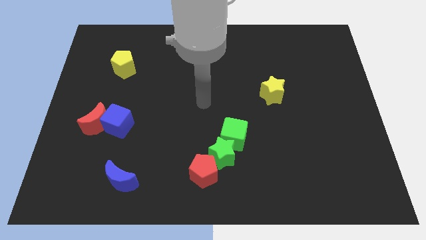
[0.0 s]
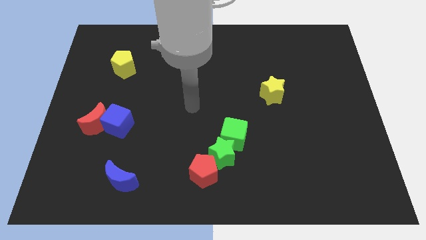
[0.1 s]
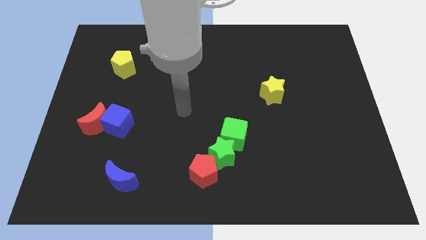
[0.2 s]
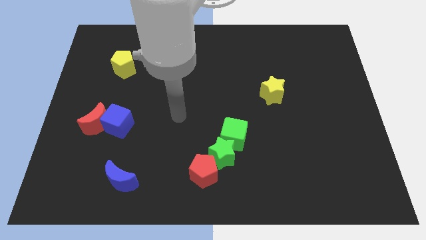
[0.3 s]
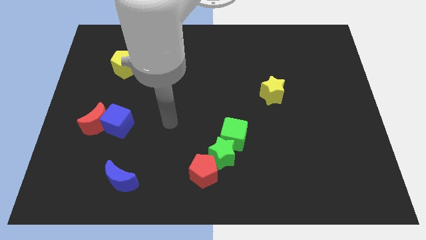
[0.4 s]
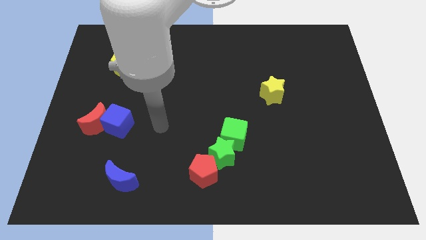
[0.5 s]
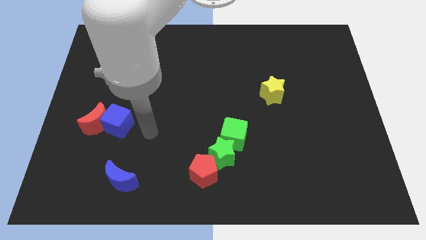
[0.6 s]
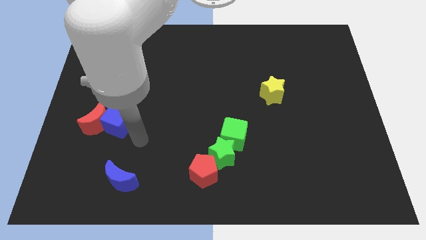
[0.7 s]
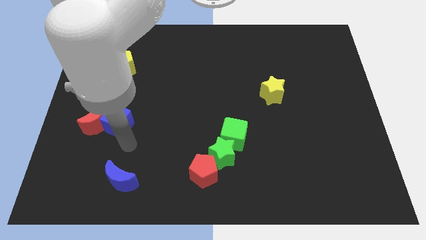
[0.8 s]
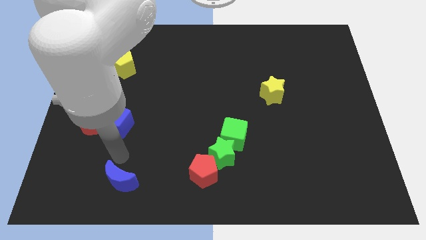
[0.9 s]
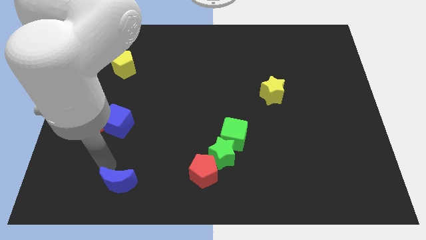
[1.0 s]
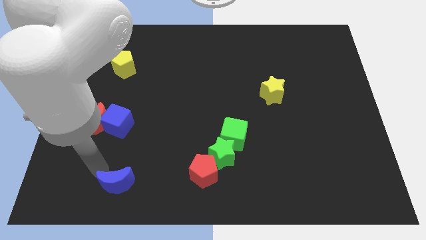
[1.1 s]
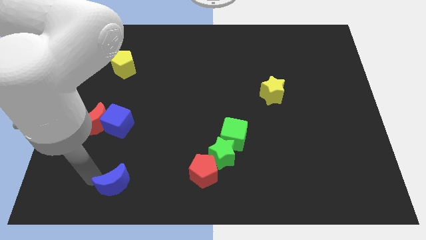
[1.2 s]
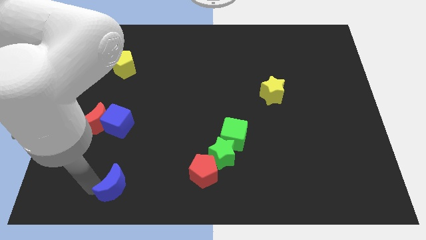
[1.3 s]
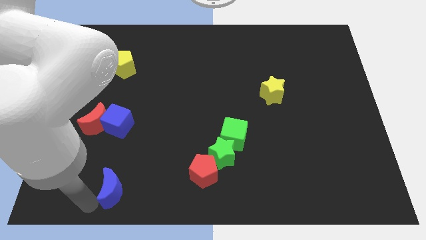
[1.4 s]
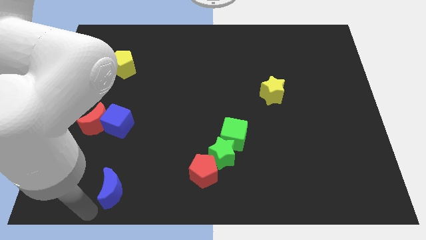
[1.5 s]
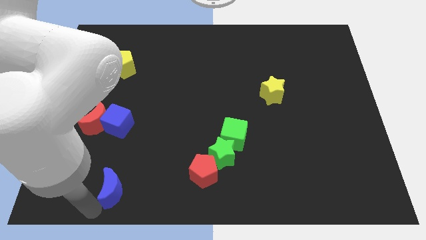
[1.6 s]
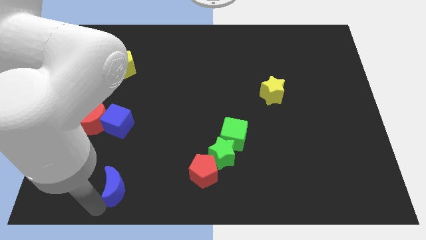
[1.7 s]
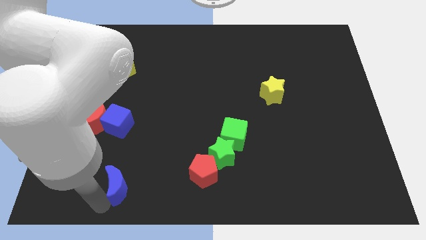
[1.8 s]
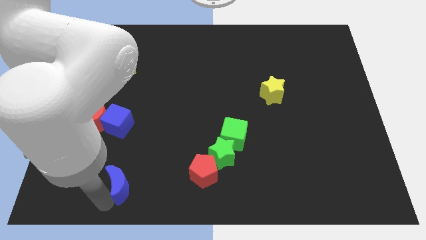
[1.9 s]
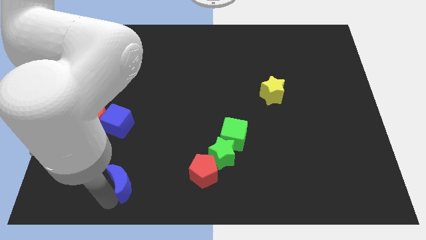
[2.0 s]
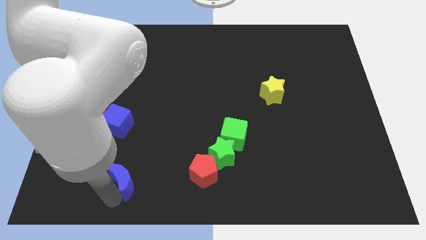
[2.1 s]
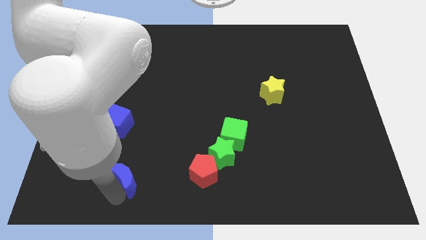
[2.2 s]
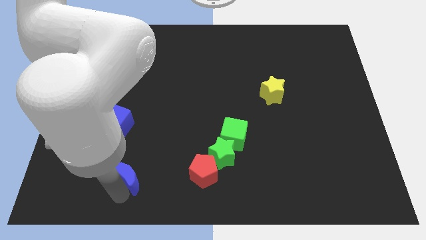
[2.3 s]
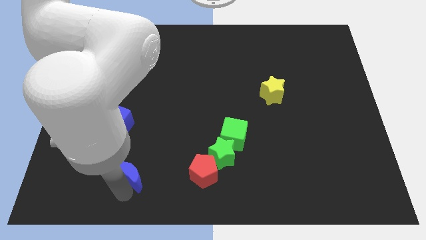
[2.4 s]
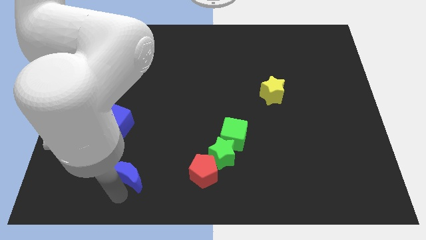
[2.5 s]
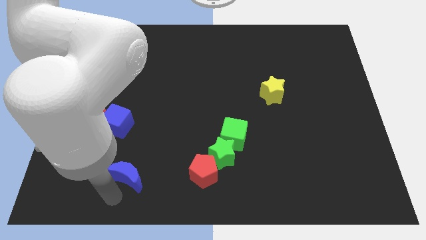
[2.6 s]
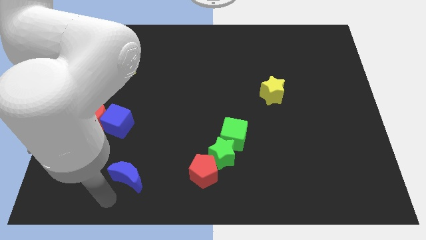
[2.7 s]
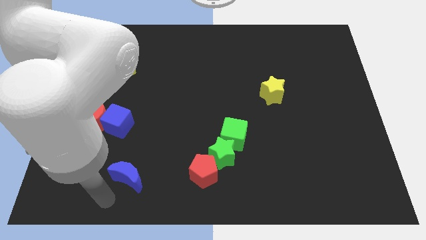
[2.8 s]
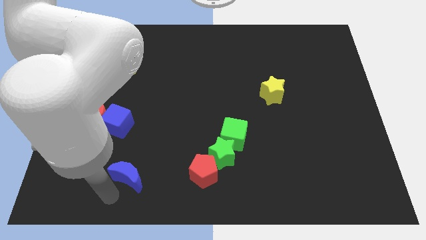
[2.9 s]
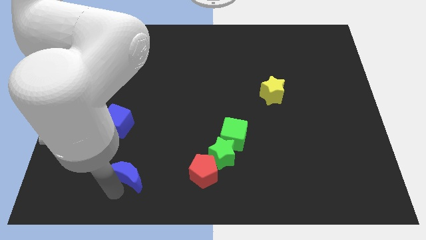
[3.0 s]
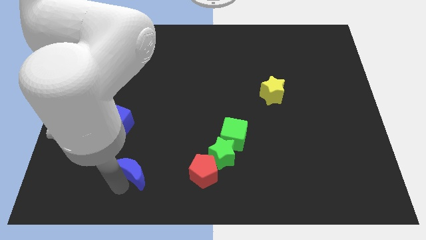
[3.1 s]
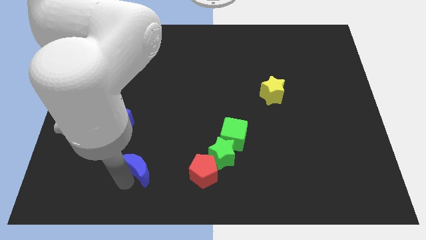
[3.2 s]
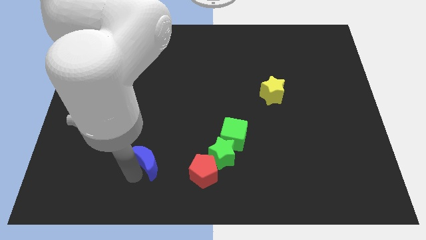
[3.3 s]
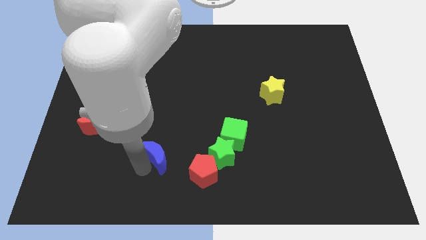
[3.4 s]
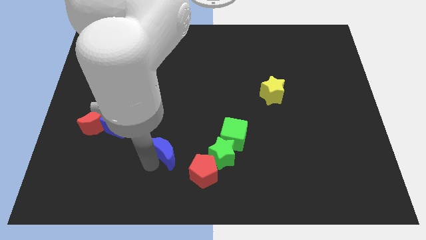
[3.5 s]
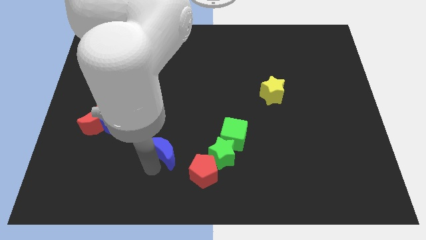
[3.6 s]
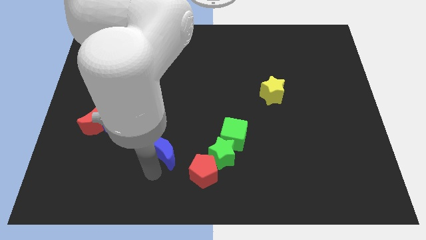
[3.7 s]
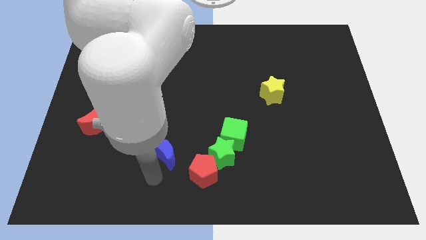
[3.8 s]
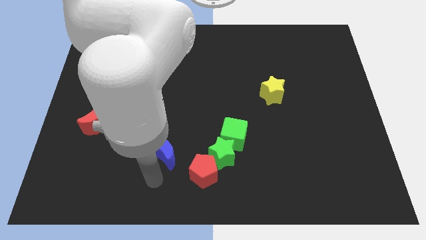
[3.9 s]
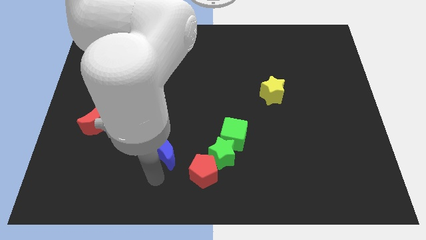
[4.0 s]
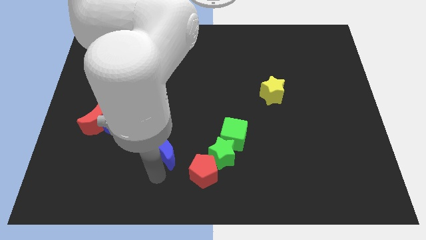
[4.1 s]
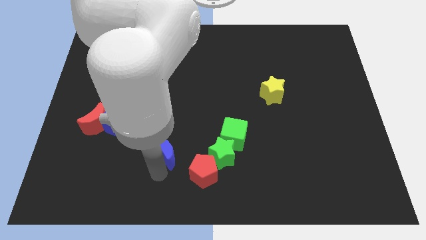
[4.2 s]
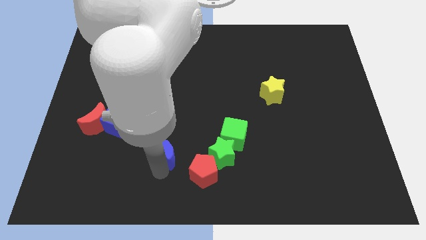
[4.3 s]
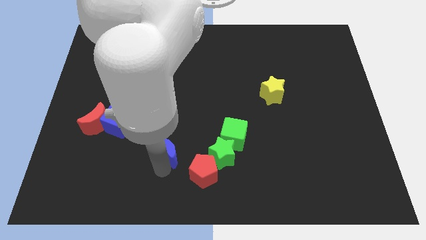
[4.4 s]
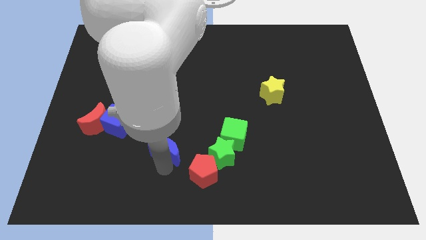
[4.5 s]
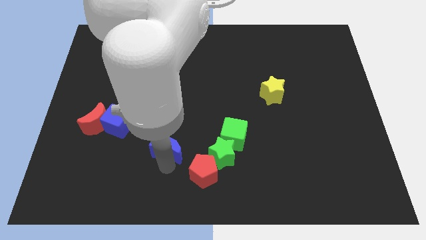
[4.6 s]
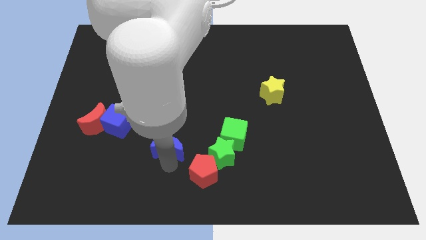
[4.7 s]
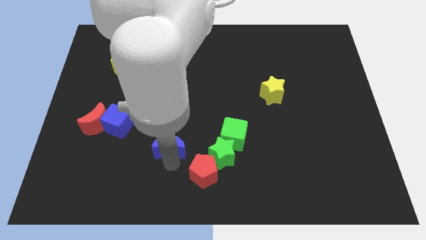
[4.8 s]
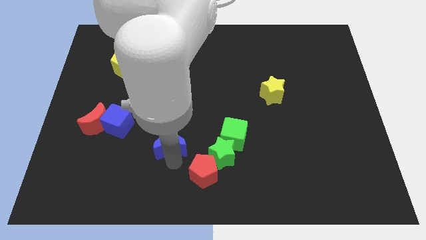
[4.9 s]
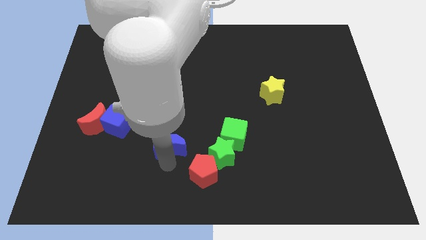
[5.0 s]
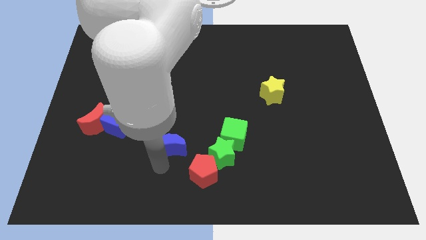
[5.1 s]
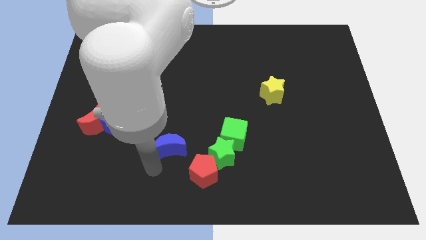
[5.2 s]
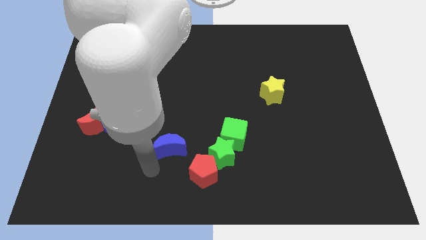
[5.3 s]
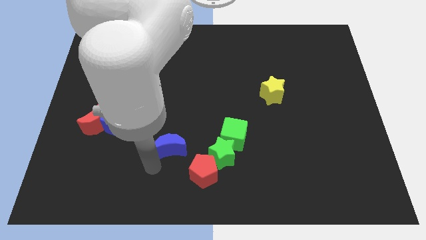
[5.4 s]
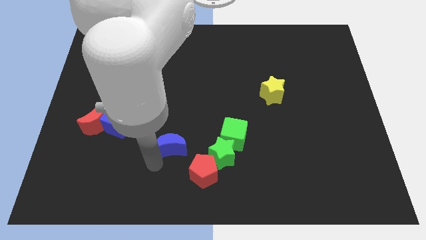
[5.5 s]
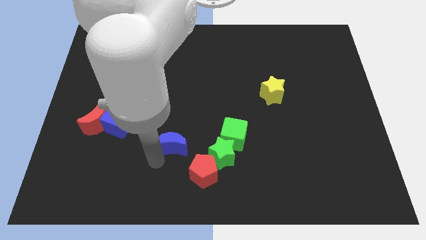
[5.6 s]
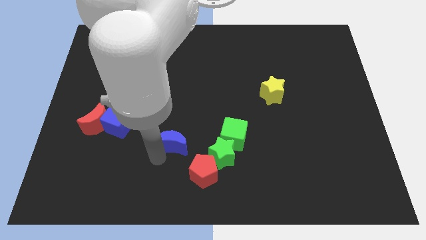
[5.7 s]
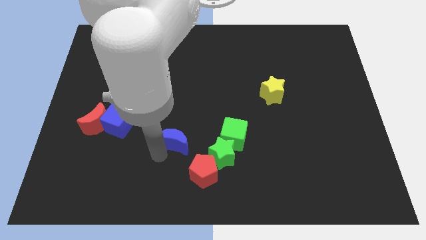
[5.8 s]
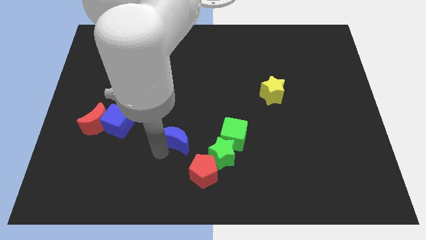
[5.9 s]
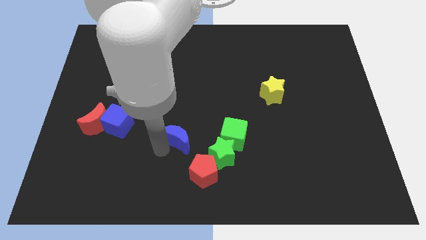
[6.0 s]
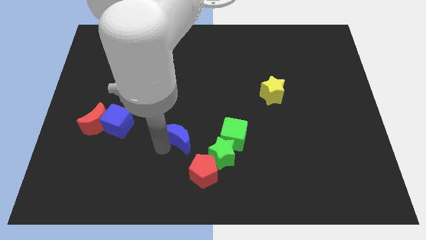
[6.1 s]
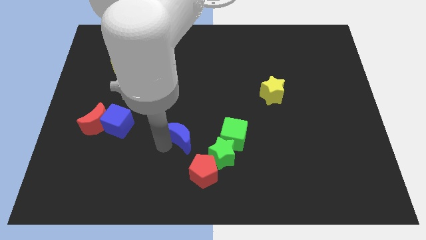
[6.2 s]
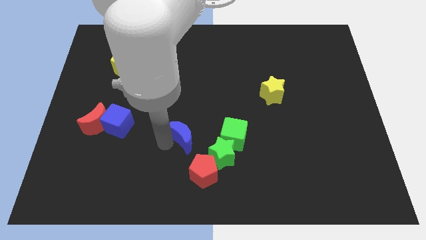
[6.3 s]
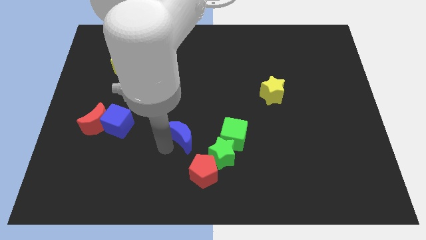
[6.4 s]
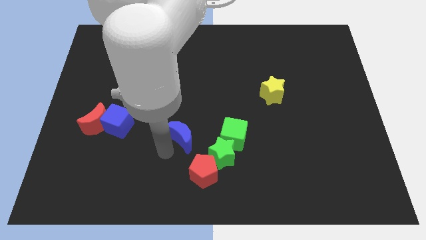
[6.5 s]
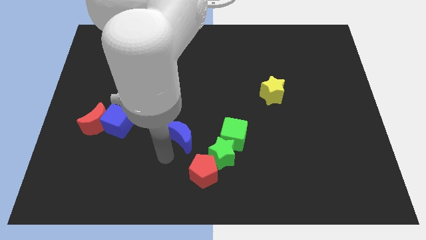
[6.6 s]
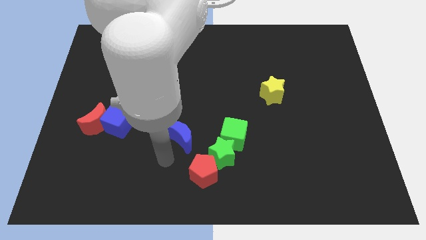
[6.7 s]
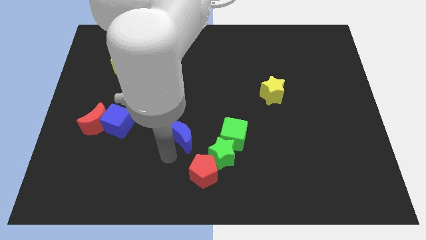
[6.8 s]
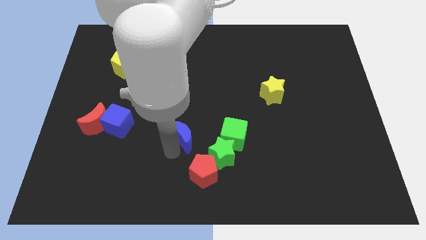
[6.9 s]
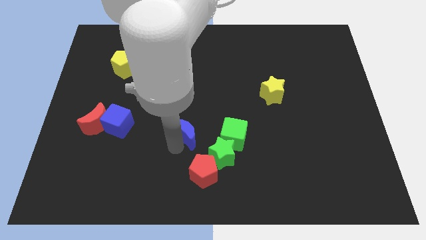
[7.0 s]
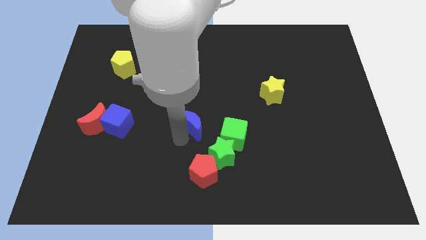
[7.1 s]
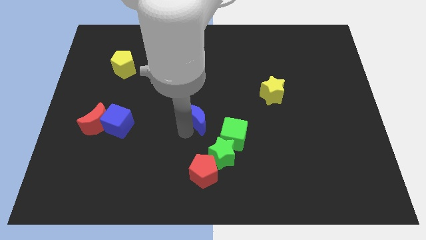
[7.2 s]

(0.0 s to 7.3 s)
slide the blue moon upwards and then to the right

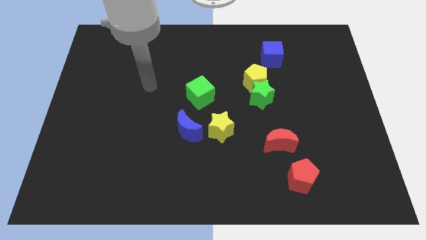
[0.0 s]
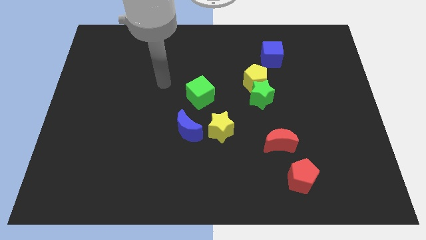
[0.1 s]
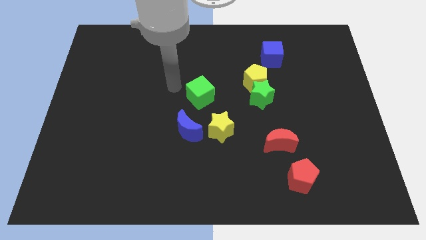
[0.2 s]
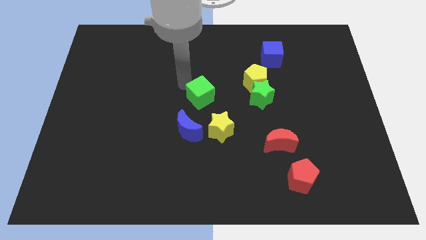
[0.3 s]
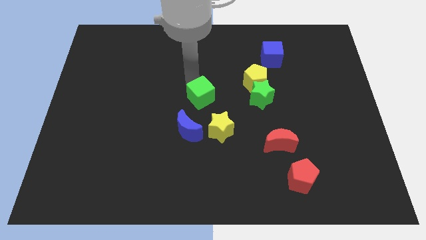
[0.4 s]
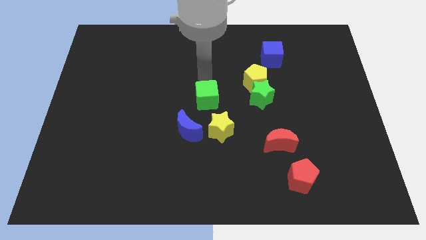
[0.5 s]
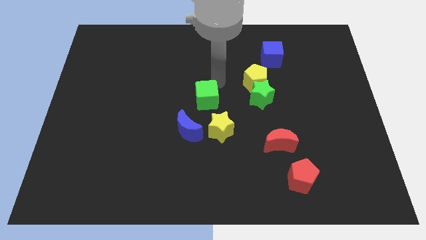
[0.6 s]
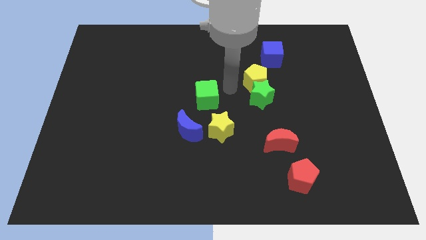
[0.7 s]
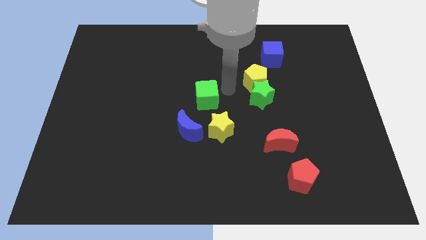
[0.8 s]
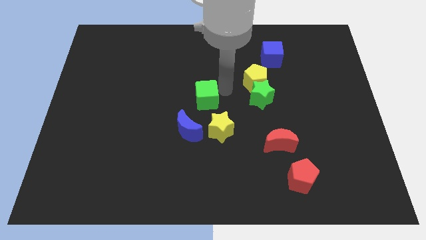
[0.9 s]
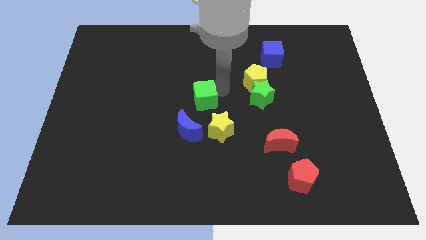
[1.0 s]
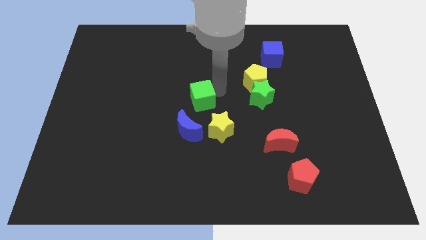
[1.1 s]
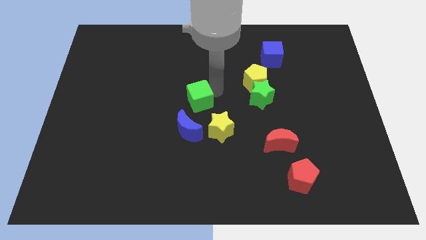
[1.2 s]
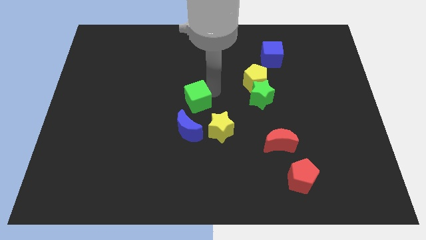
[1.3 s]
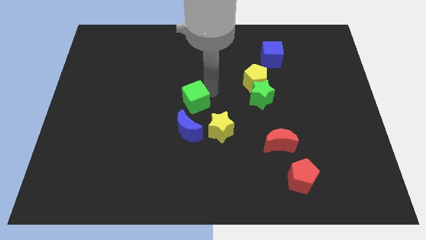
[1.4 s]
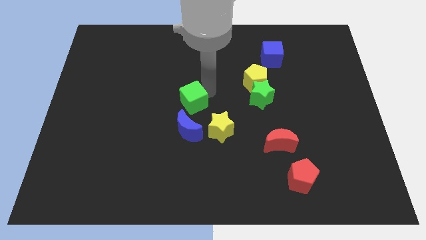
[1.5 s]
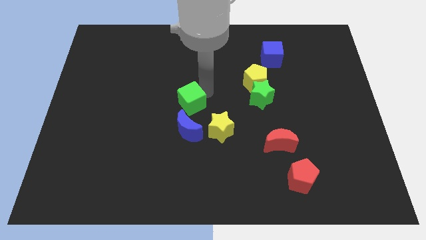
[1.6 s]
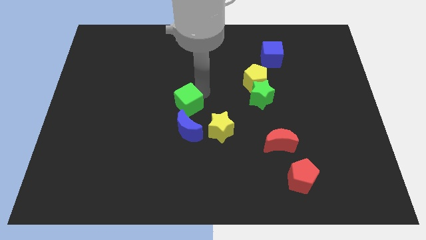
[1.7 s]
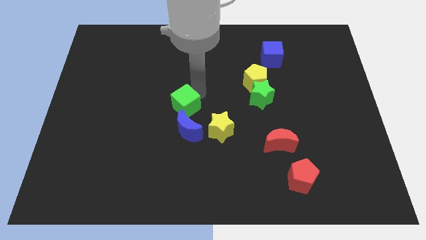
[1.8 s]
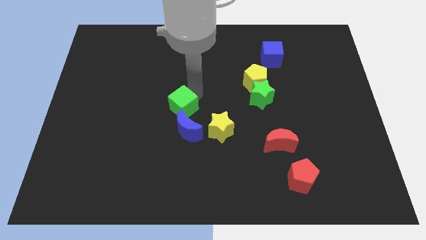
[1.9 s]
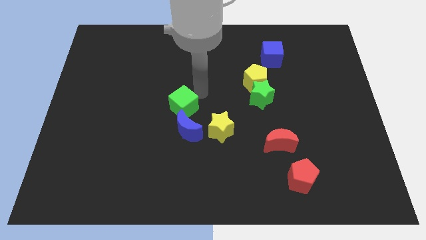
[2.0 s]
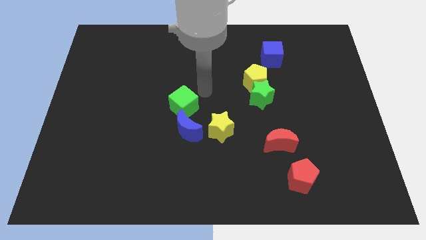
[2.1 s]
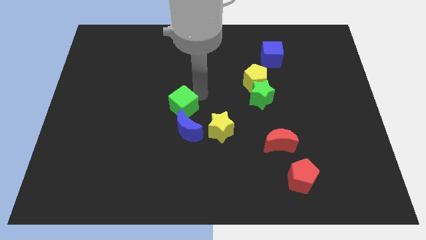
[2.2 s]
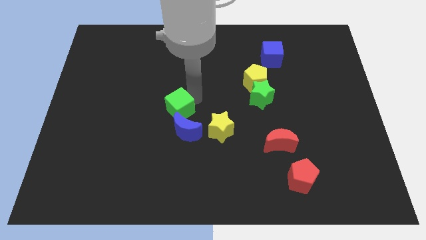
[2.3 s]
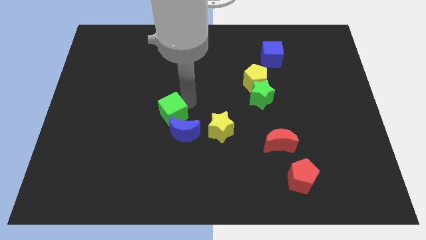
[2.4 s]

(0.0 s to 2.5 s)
push the green cube down and left somewhat
